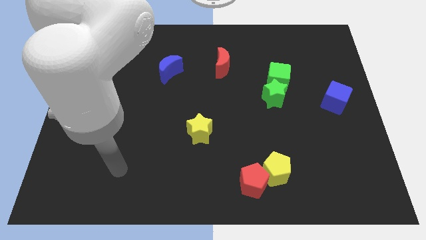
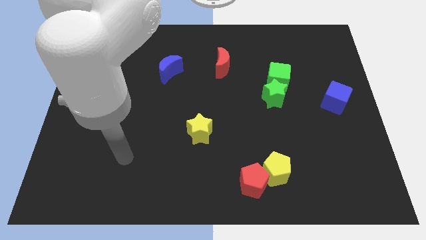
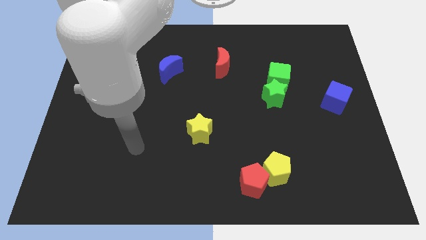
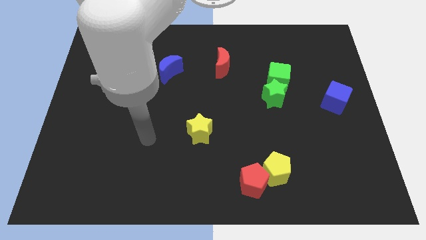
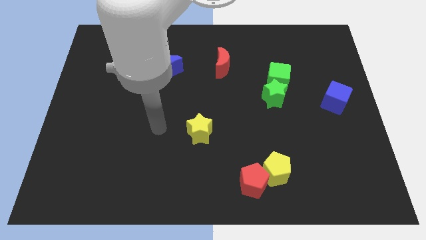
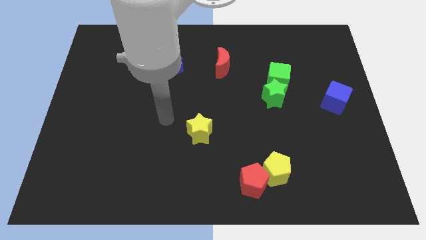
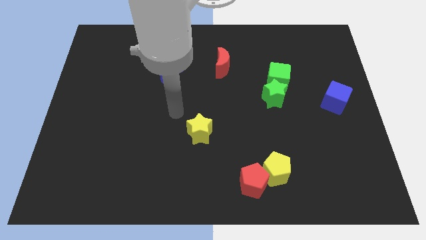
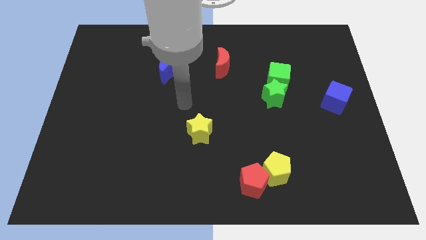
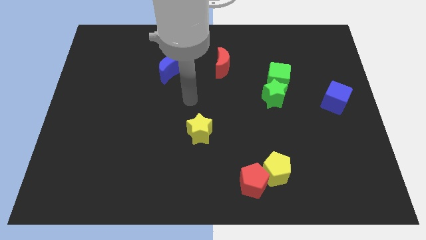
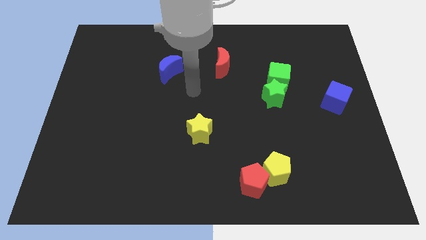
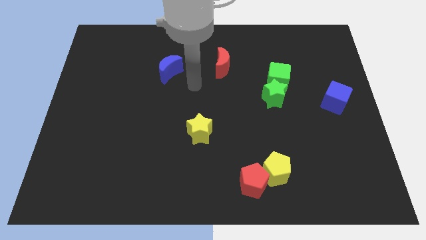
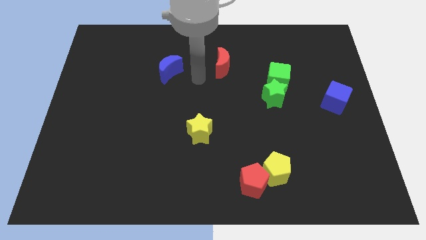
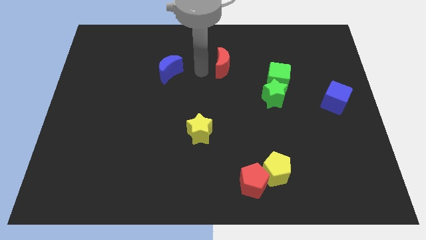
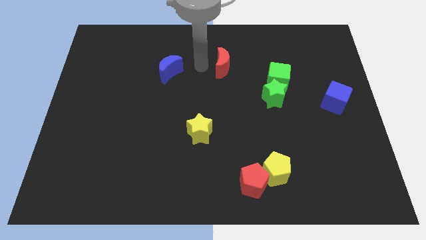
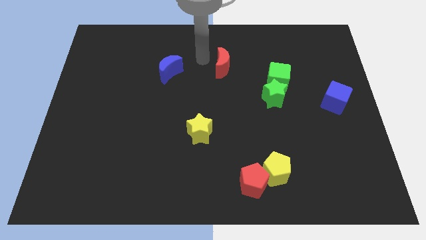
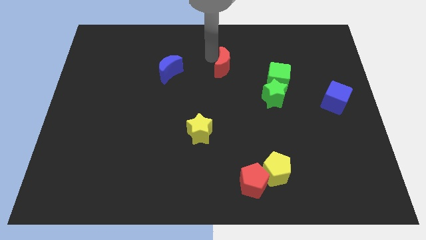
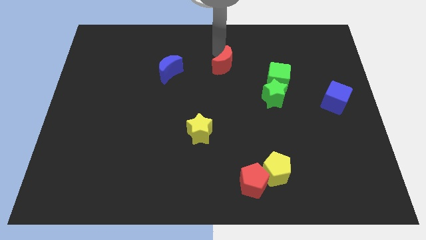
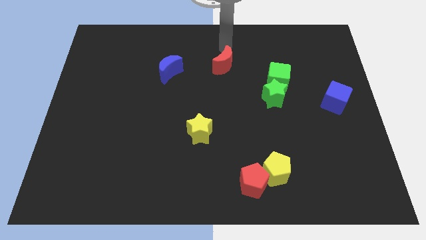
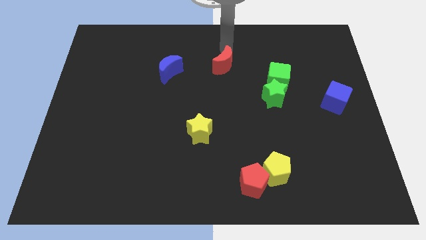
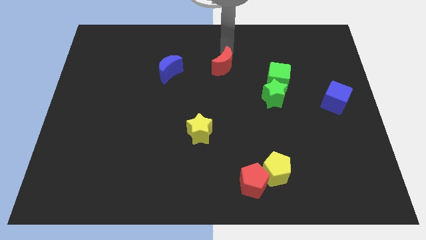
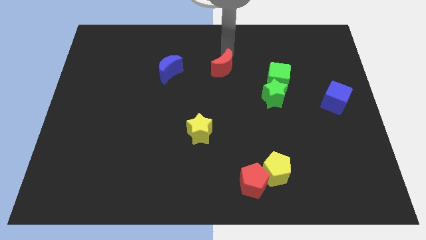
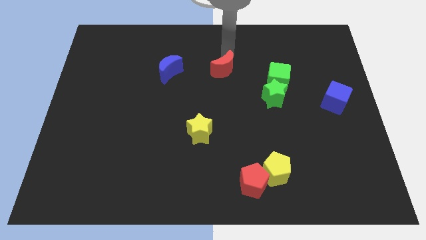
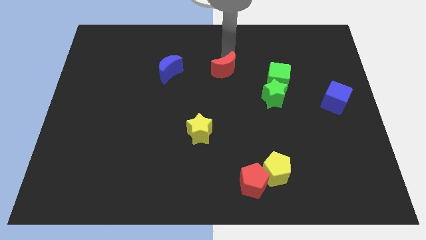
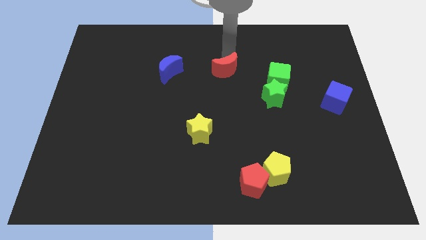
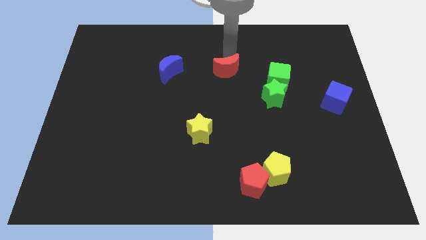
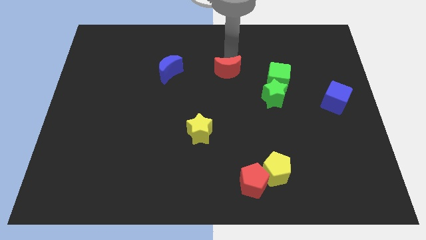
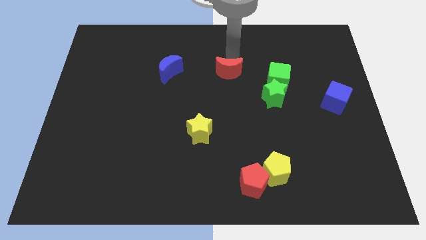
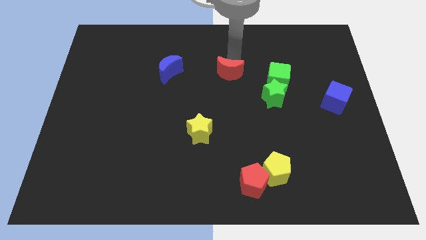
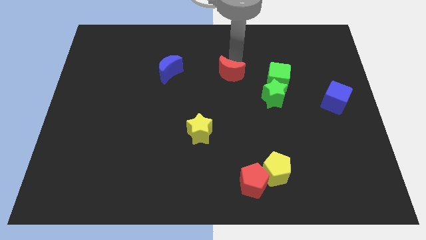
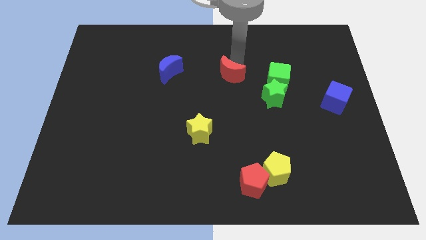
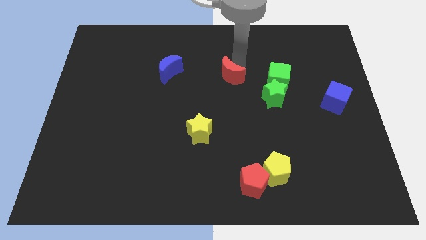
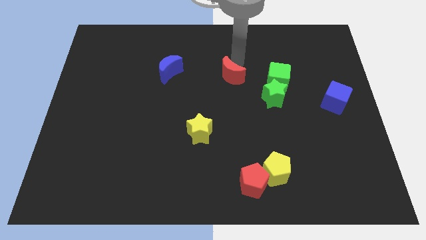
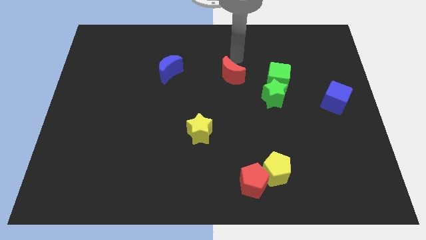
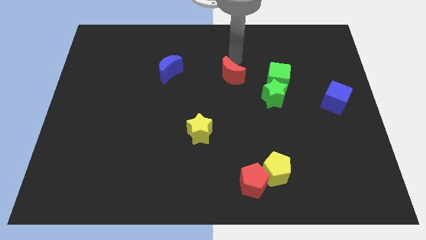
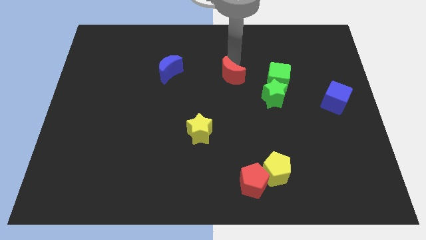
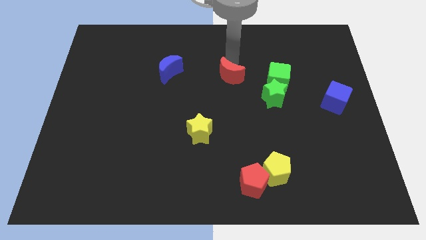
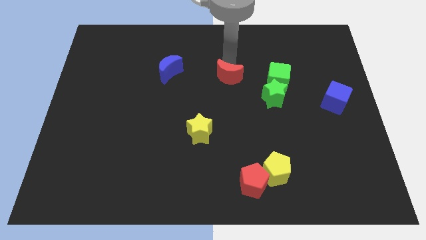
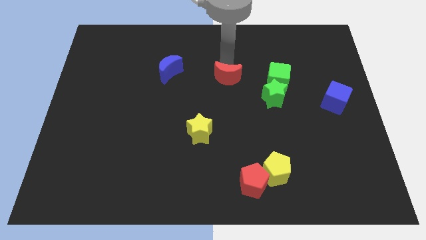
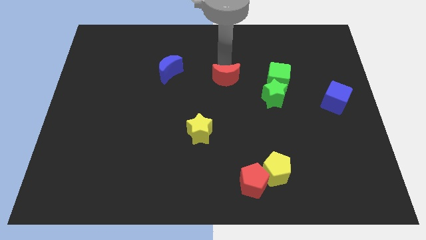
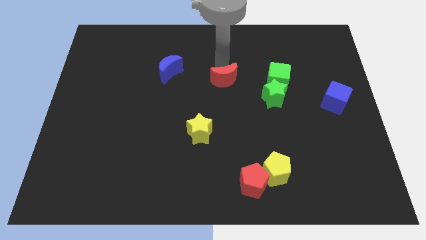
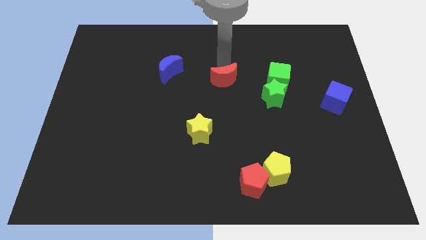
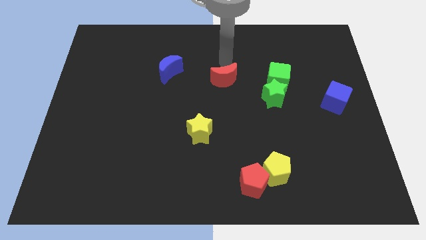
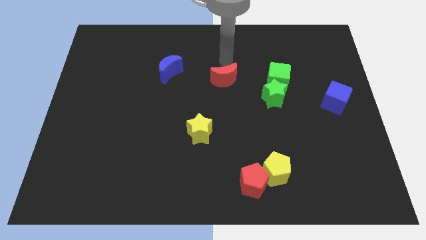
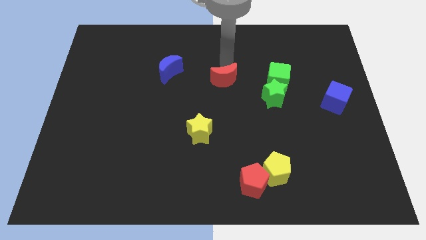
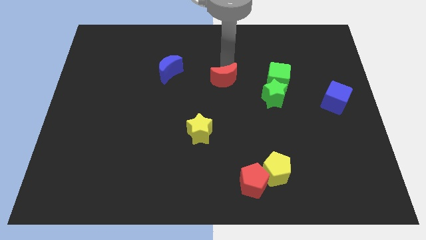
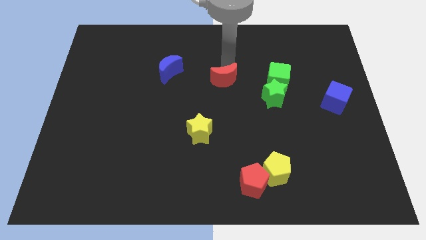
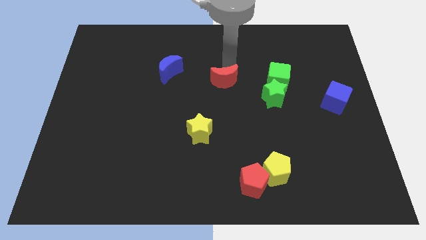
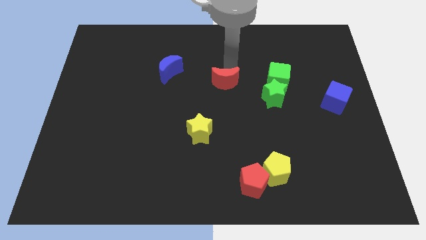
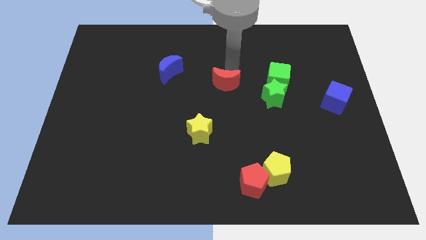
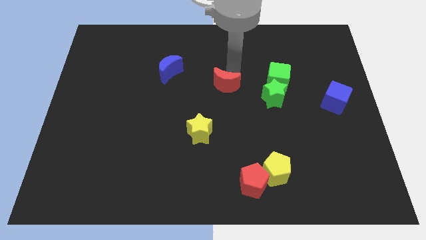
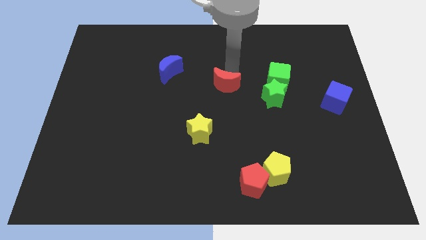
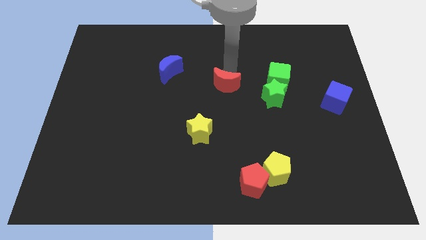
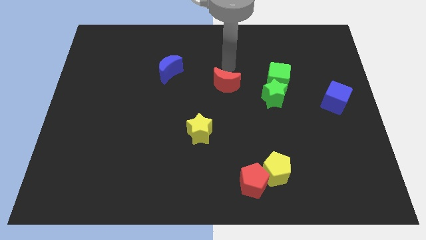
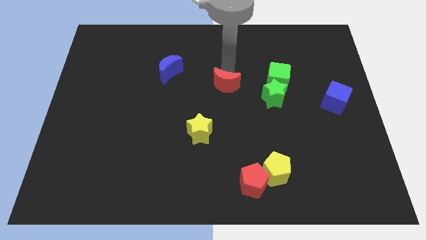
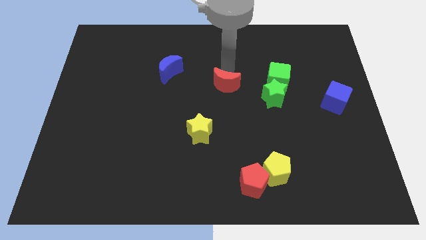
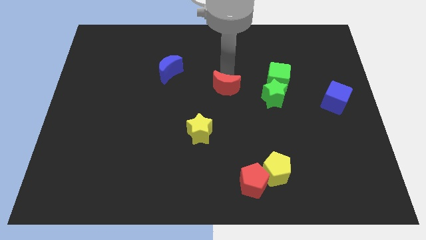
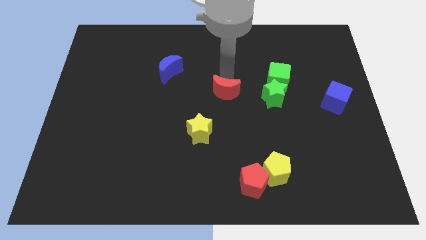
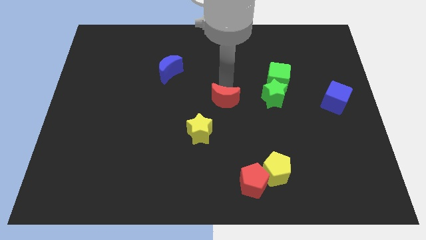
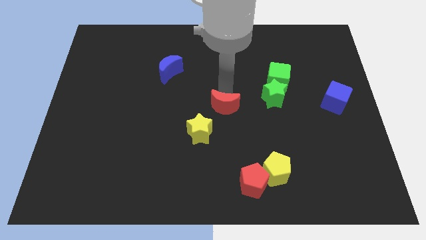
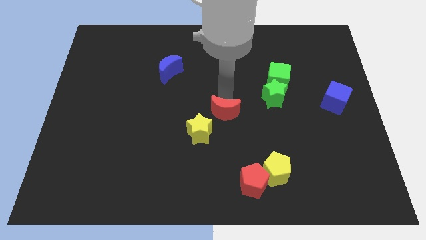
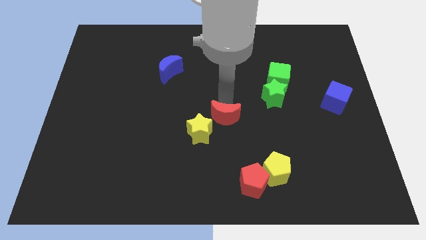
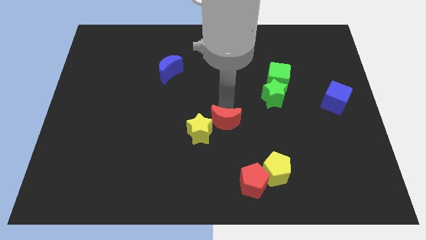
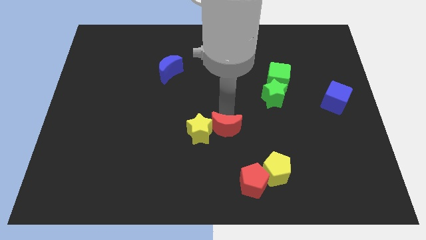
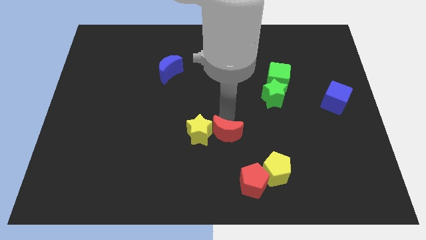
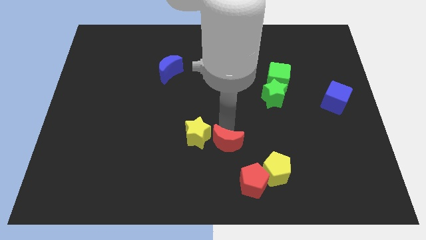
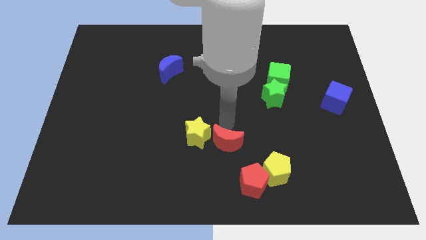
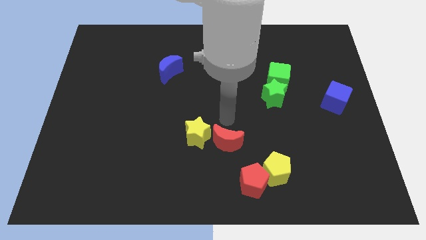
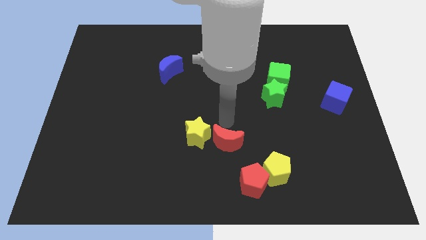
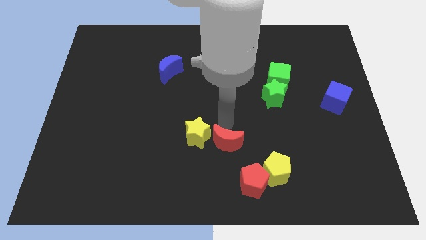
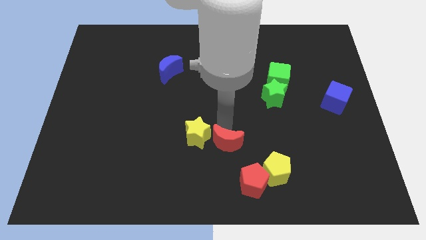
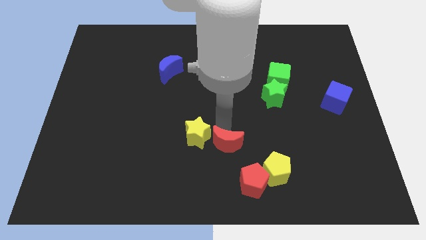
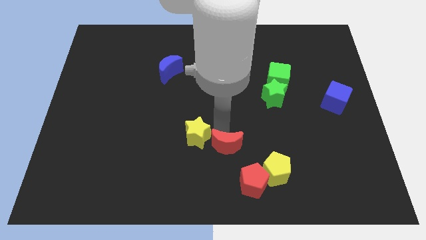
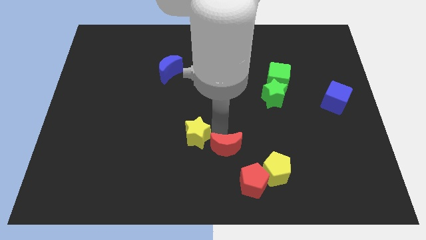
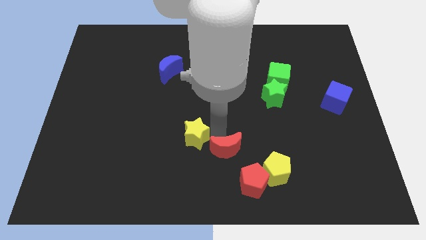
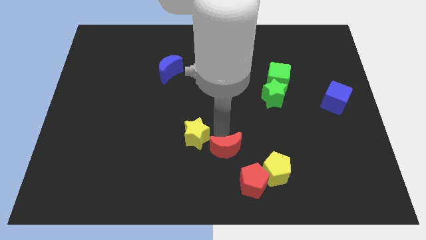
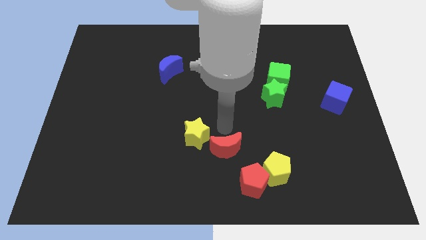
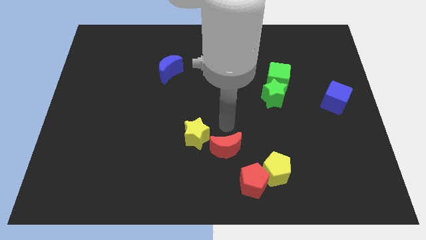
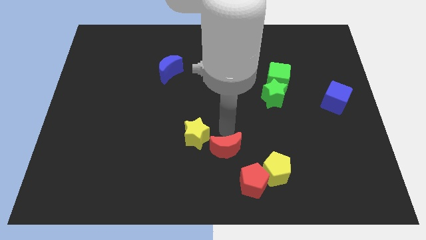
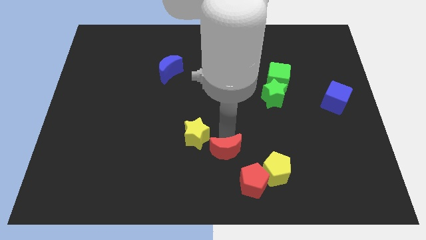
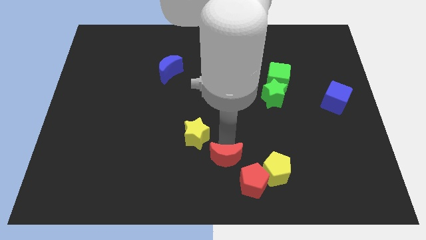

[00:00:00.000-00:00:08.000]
put the red moon left of the yellow pentagon
